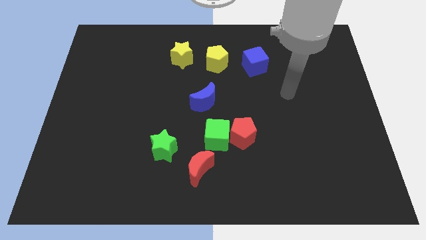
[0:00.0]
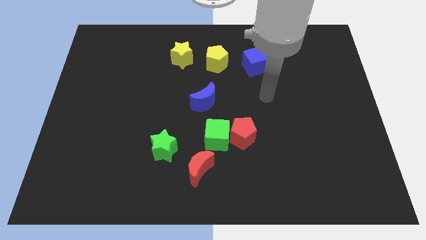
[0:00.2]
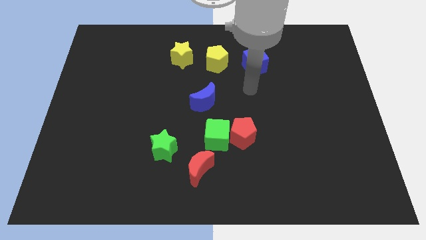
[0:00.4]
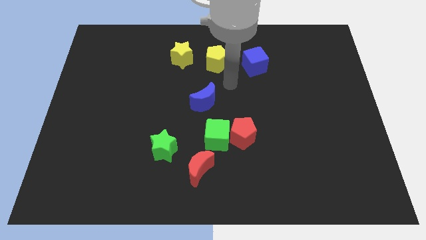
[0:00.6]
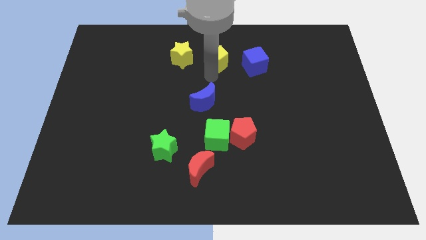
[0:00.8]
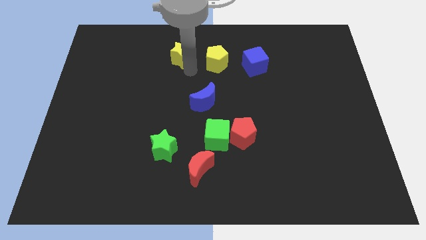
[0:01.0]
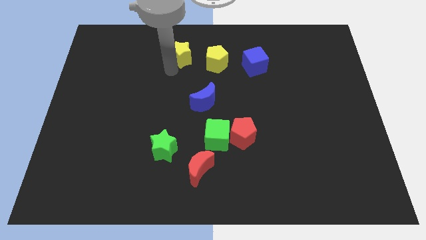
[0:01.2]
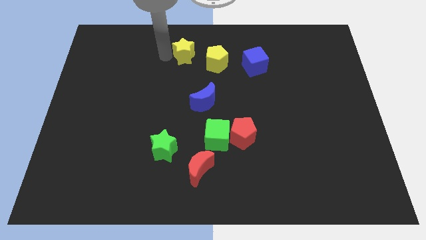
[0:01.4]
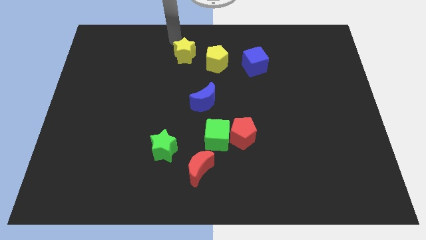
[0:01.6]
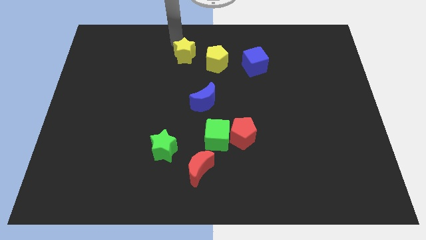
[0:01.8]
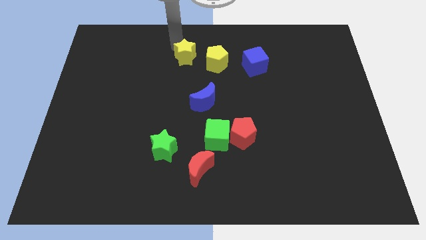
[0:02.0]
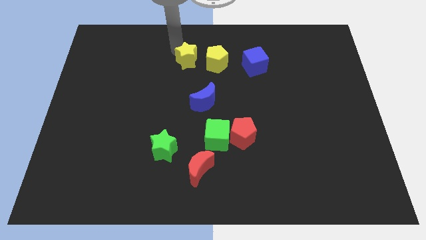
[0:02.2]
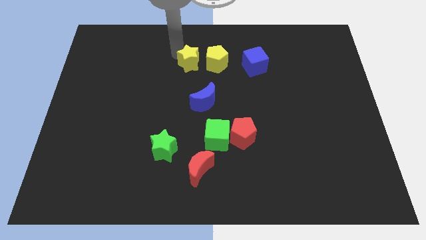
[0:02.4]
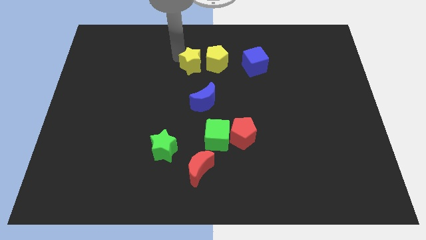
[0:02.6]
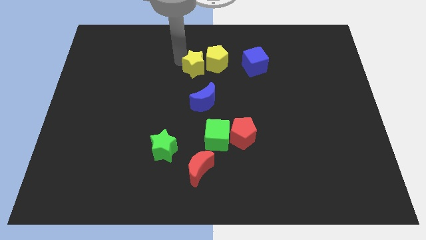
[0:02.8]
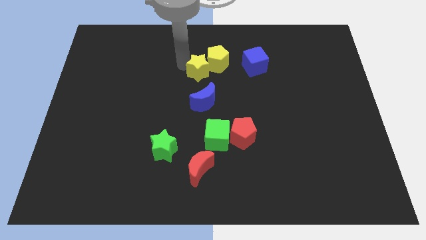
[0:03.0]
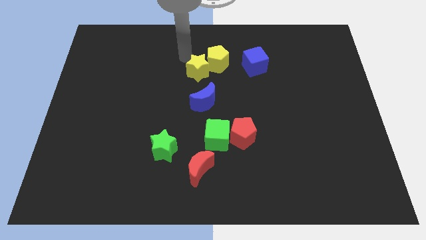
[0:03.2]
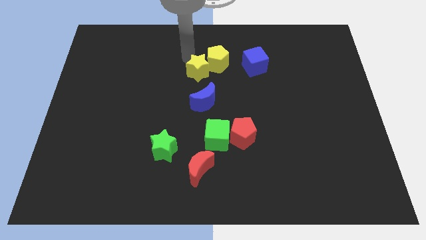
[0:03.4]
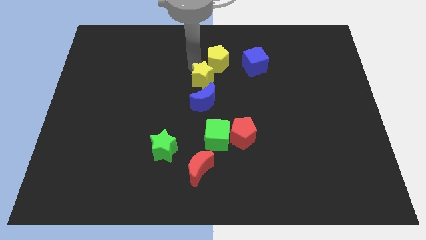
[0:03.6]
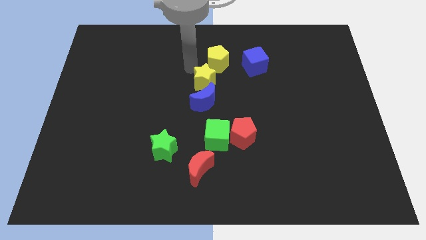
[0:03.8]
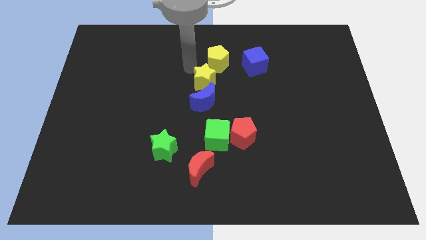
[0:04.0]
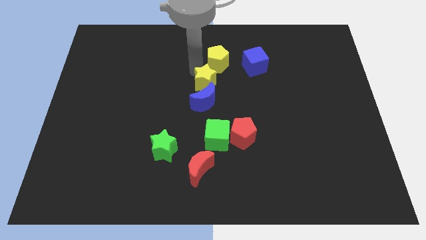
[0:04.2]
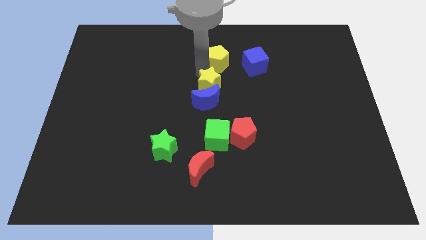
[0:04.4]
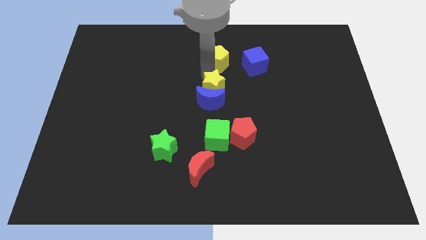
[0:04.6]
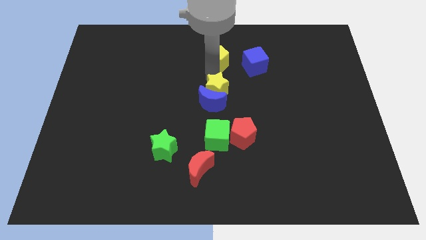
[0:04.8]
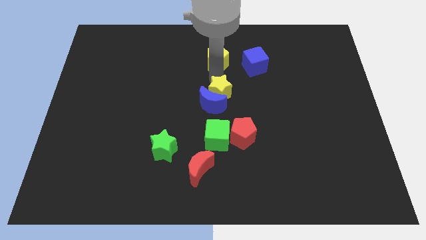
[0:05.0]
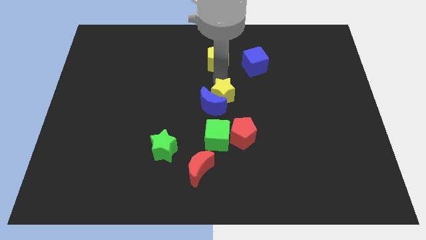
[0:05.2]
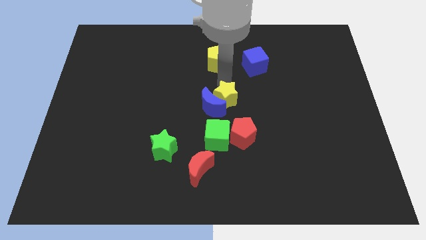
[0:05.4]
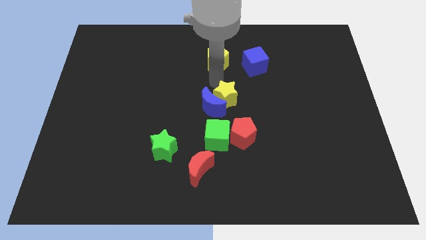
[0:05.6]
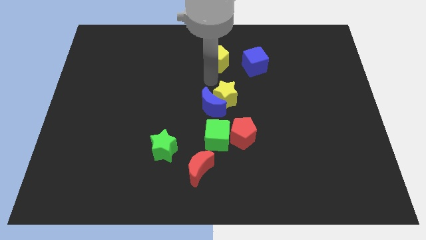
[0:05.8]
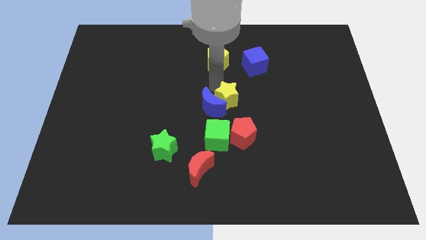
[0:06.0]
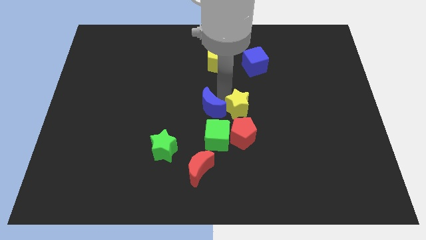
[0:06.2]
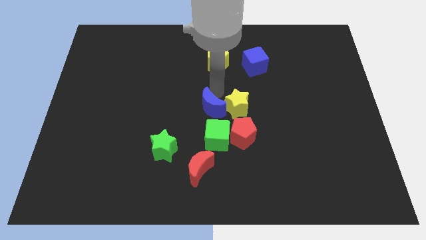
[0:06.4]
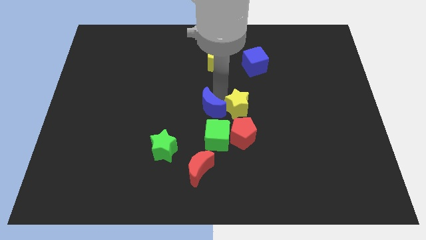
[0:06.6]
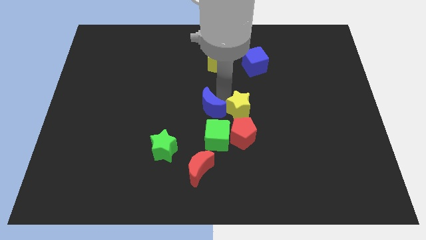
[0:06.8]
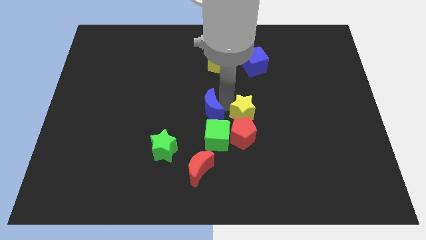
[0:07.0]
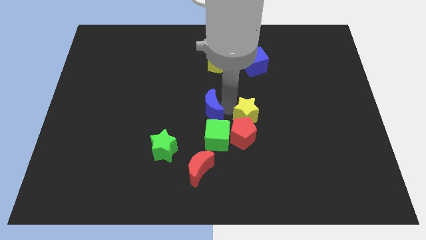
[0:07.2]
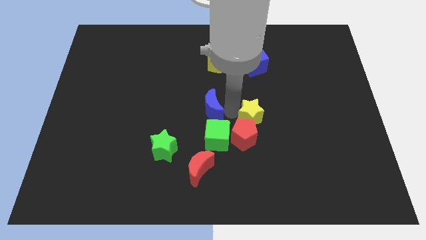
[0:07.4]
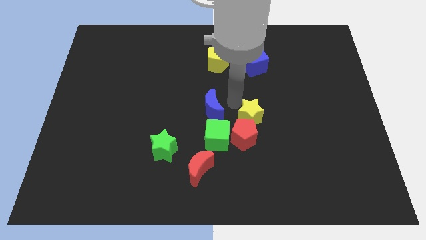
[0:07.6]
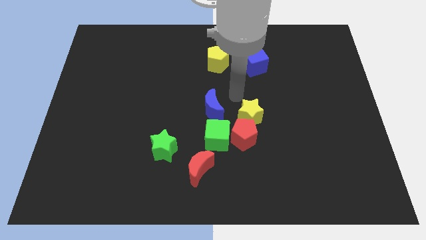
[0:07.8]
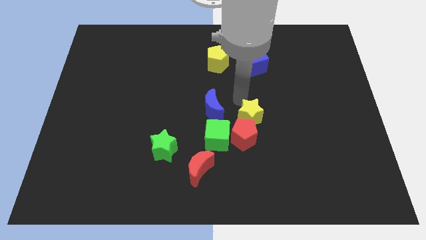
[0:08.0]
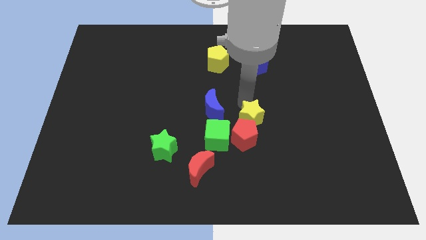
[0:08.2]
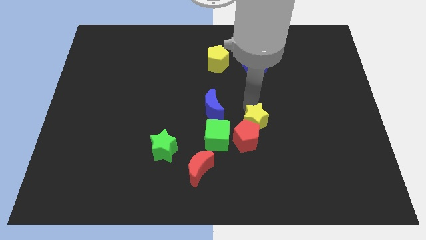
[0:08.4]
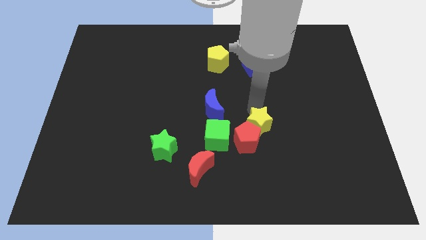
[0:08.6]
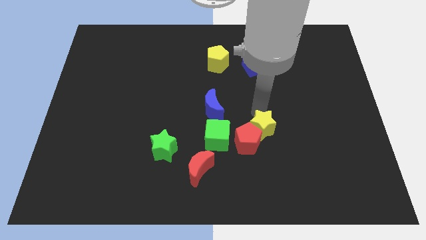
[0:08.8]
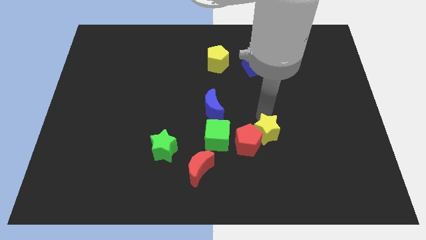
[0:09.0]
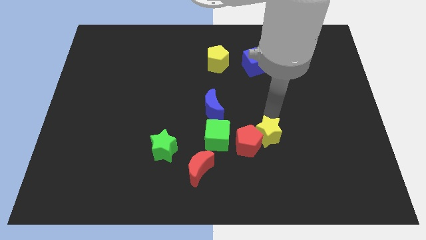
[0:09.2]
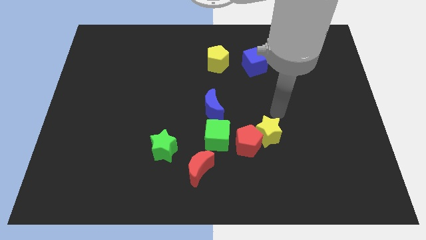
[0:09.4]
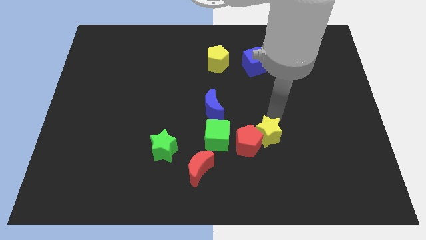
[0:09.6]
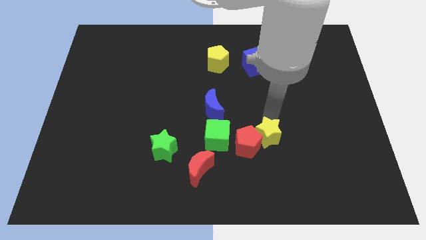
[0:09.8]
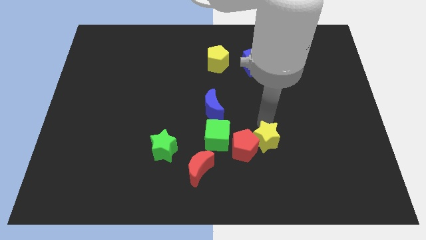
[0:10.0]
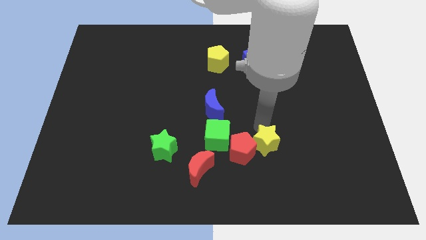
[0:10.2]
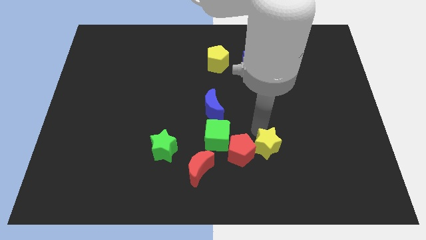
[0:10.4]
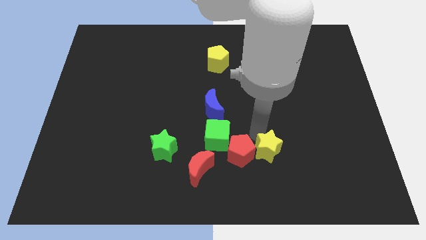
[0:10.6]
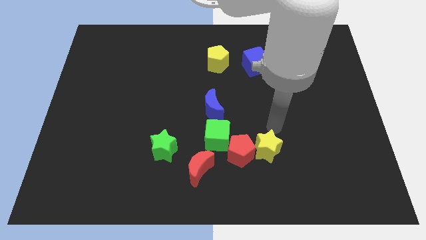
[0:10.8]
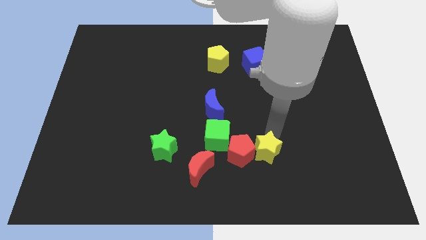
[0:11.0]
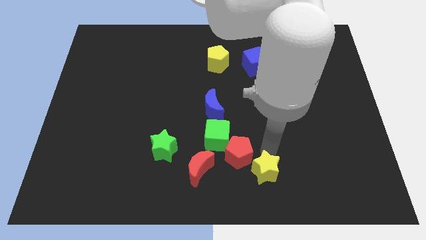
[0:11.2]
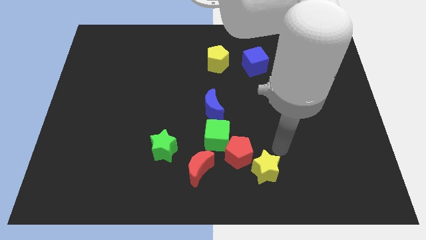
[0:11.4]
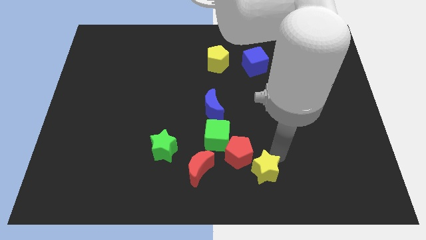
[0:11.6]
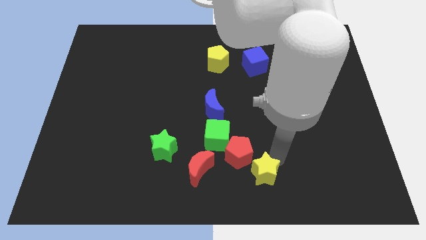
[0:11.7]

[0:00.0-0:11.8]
put the yellow star below the red pentagon
